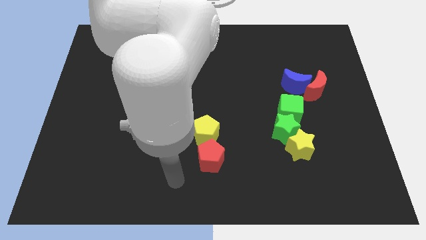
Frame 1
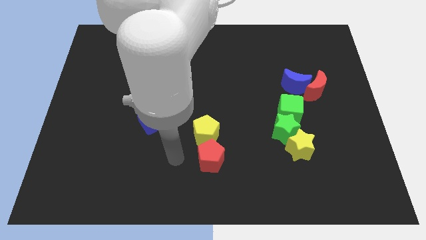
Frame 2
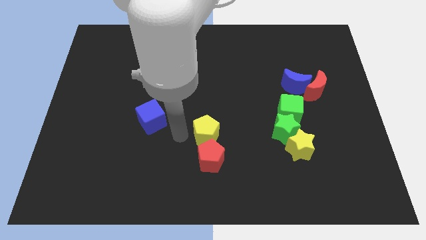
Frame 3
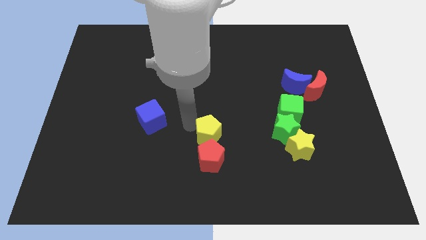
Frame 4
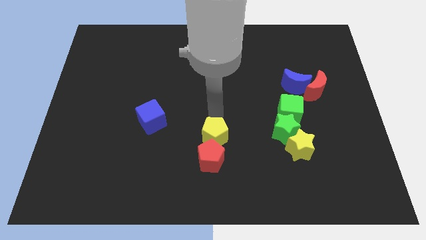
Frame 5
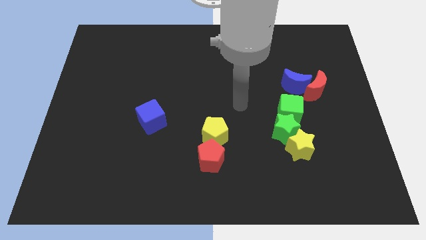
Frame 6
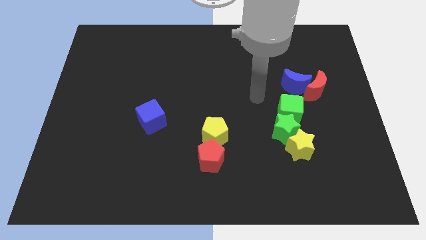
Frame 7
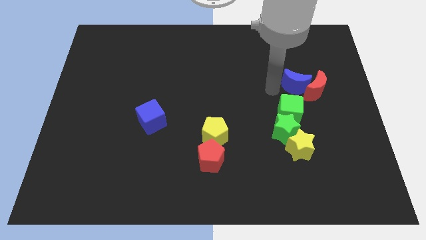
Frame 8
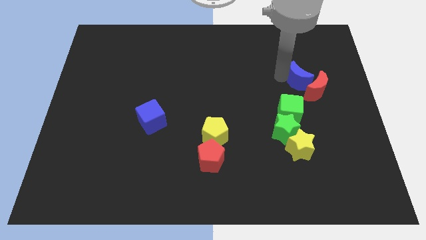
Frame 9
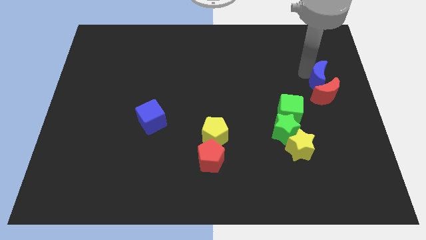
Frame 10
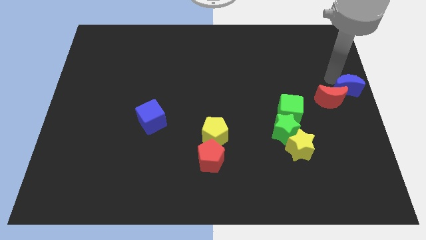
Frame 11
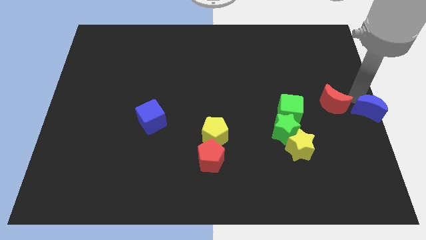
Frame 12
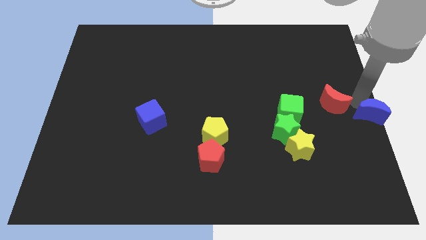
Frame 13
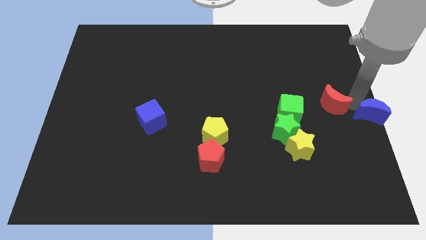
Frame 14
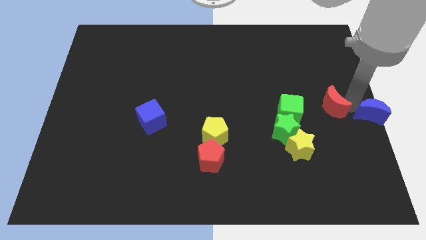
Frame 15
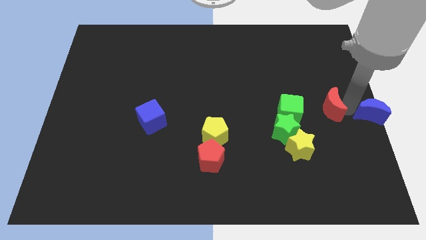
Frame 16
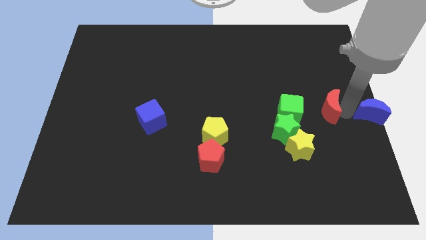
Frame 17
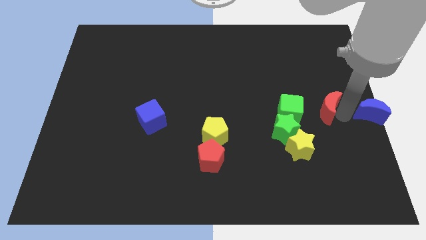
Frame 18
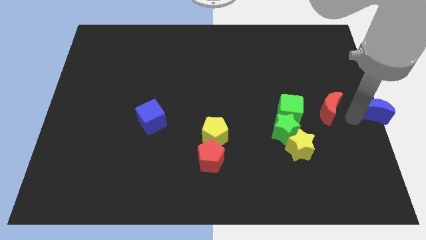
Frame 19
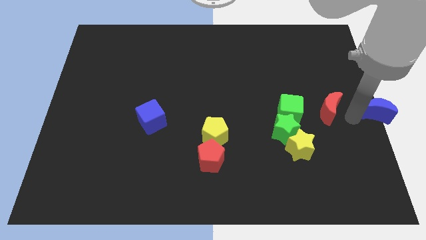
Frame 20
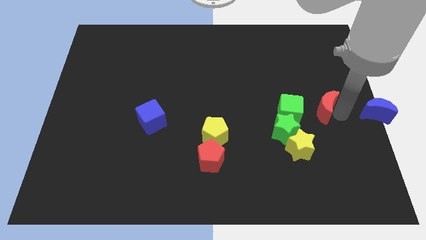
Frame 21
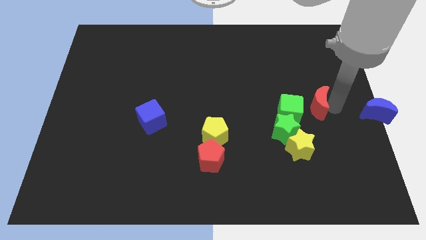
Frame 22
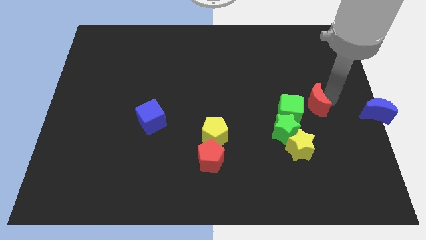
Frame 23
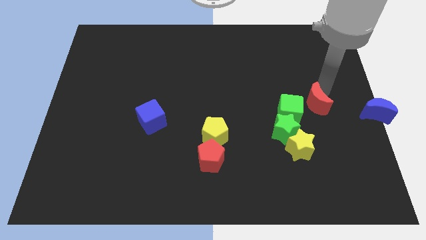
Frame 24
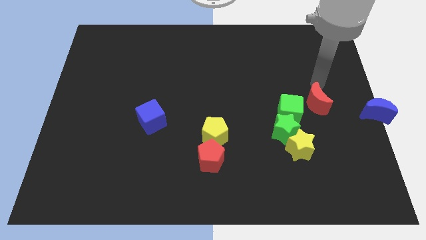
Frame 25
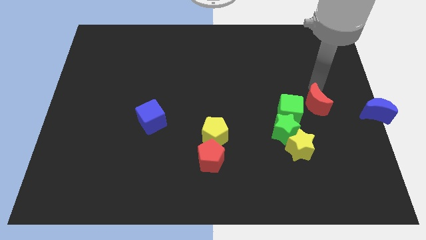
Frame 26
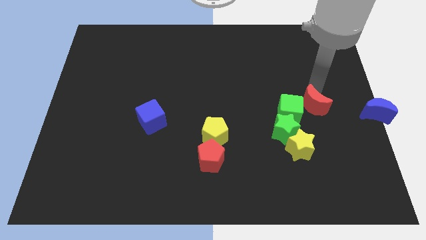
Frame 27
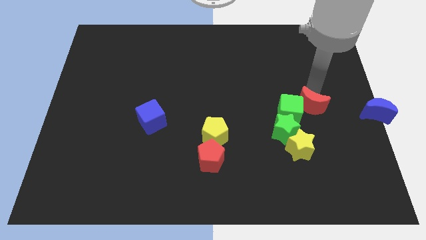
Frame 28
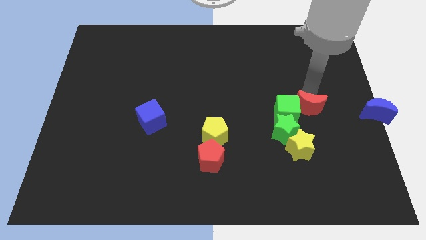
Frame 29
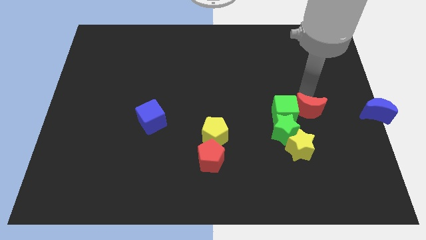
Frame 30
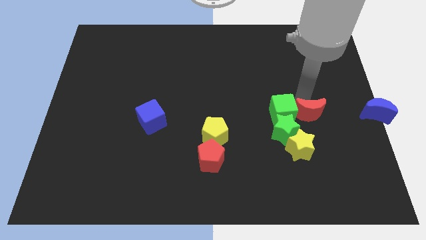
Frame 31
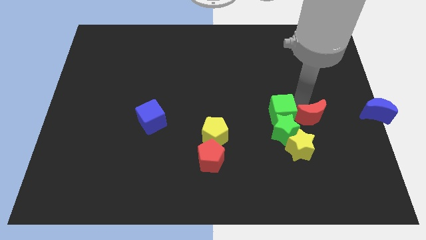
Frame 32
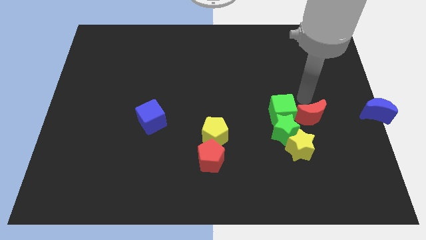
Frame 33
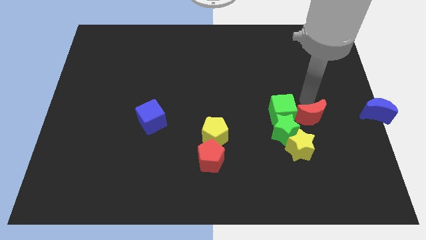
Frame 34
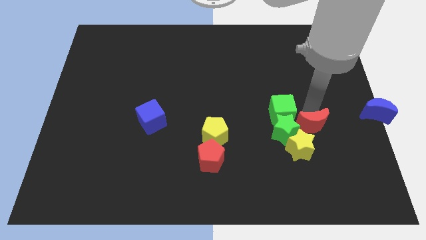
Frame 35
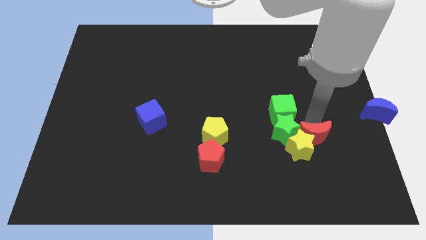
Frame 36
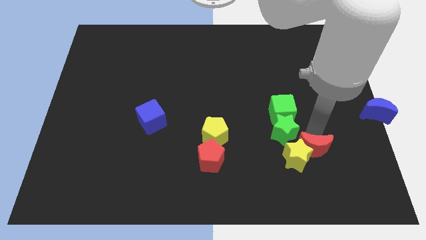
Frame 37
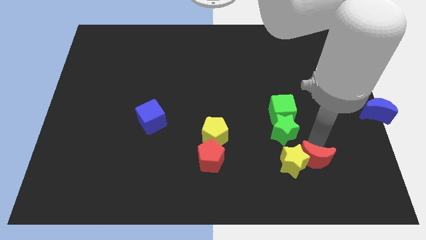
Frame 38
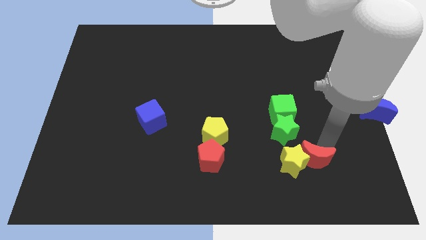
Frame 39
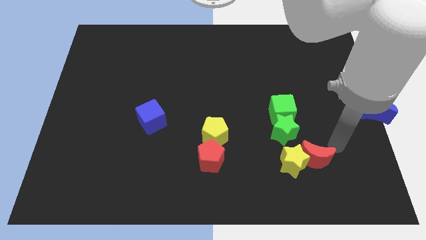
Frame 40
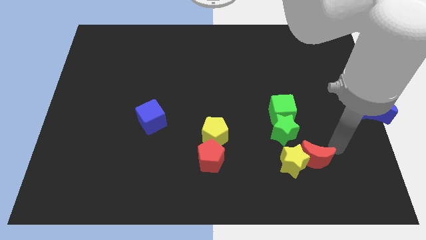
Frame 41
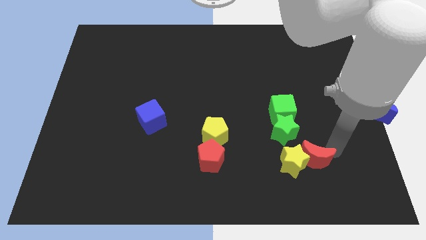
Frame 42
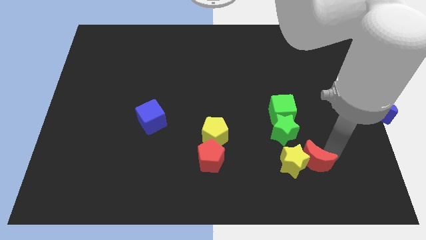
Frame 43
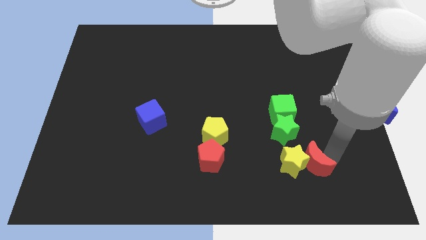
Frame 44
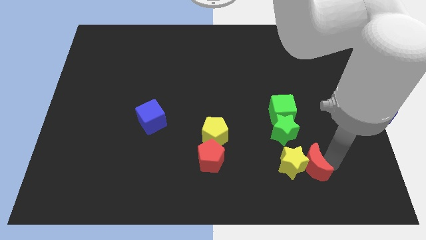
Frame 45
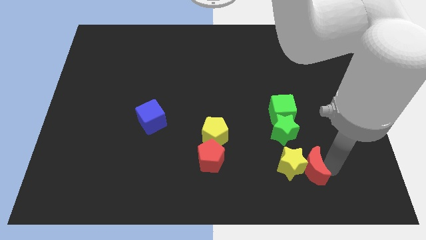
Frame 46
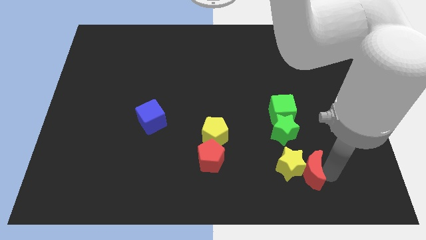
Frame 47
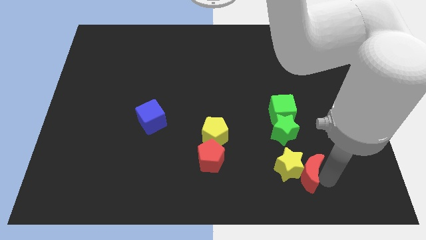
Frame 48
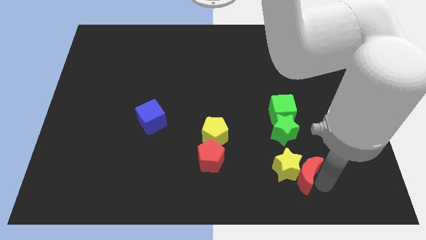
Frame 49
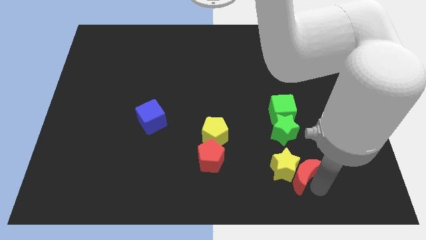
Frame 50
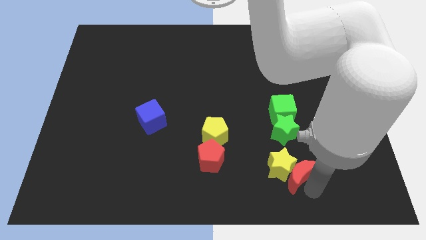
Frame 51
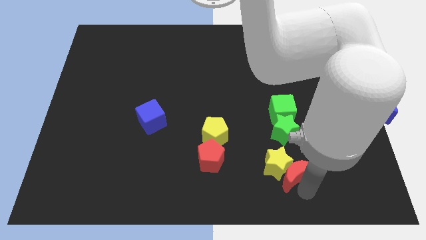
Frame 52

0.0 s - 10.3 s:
slide the red moon to the bottom side of the green cube

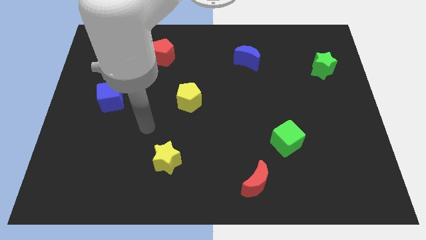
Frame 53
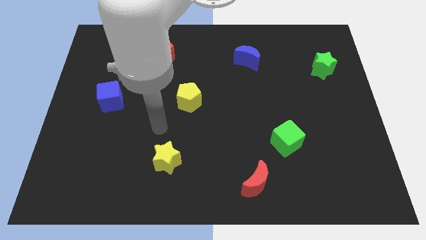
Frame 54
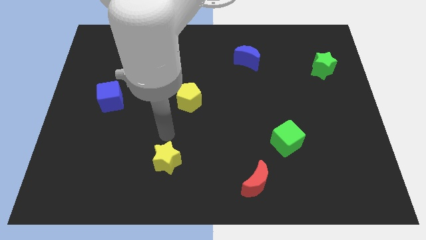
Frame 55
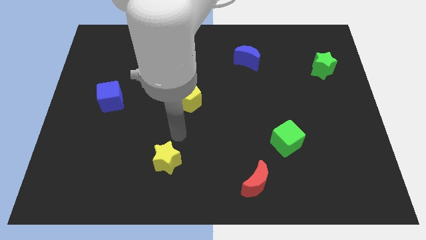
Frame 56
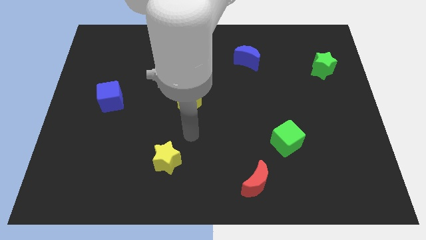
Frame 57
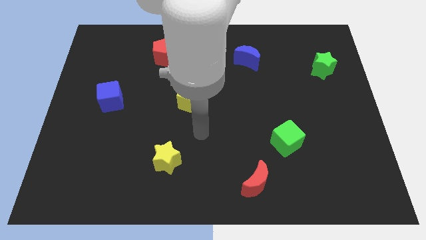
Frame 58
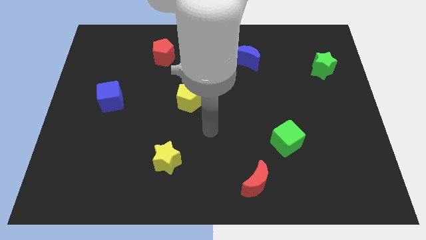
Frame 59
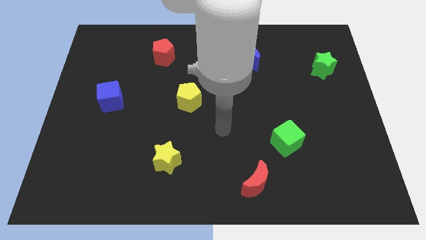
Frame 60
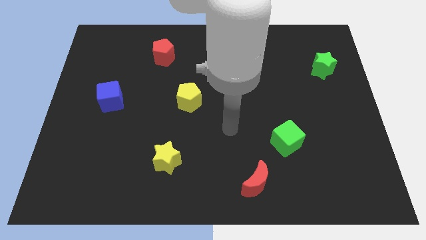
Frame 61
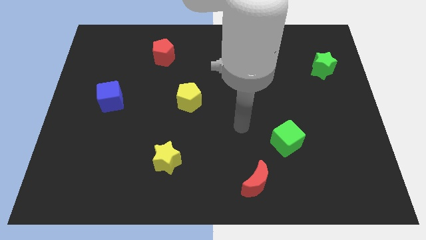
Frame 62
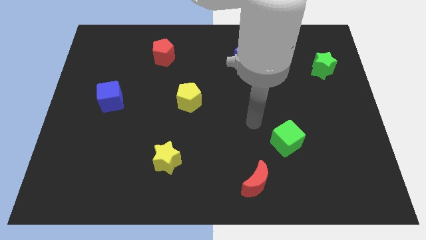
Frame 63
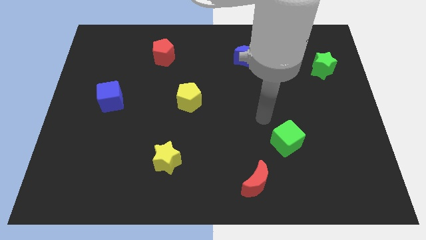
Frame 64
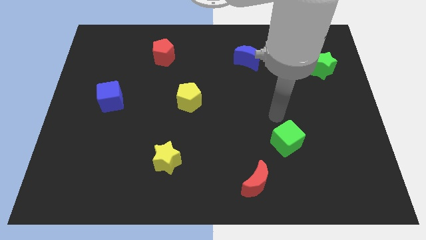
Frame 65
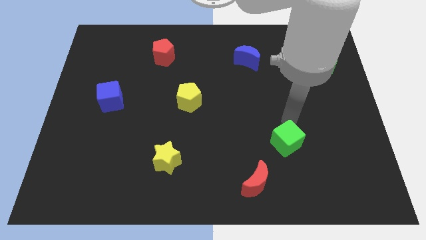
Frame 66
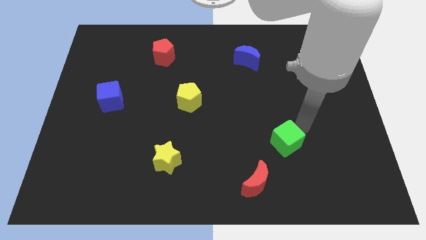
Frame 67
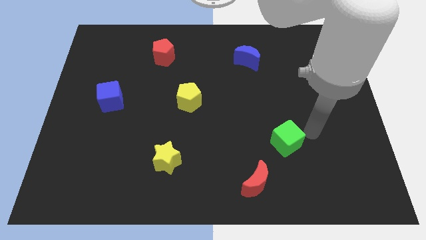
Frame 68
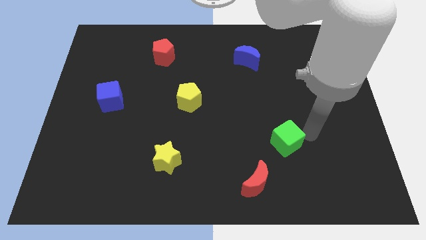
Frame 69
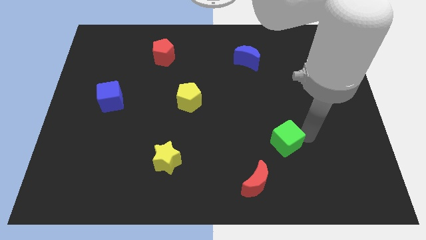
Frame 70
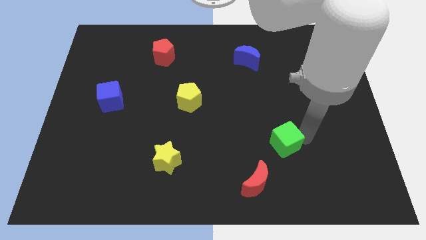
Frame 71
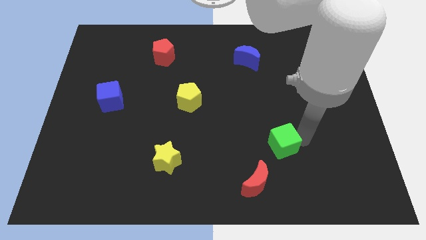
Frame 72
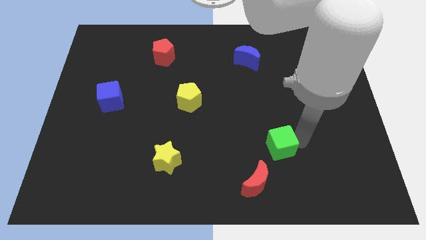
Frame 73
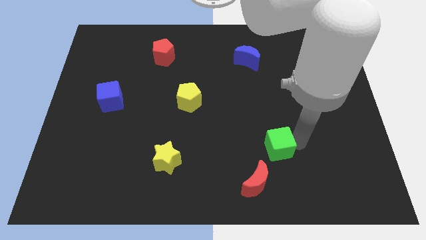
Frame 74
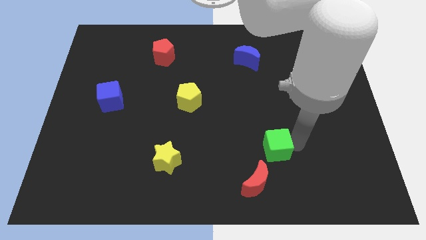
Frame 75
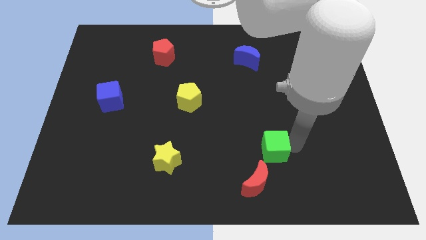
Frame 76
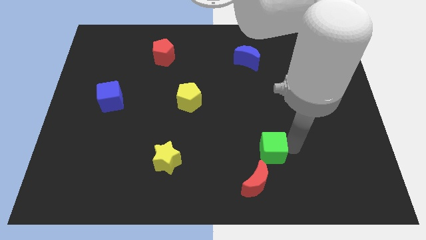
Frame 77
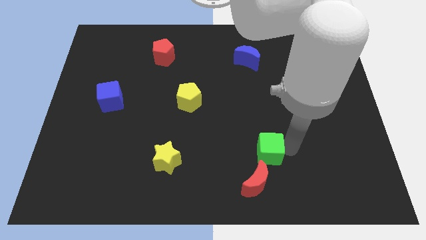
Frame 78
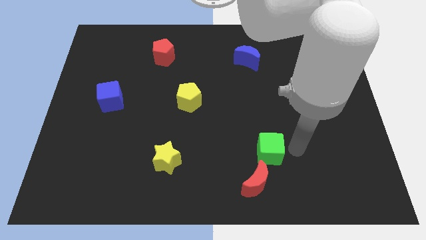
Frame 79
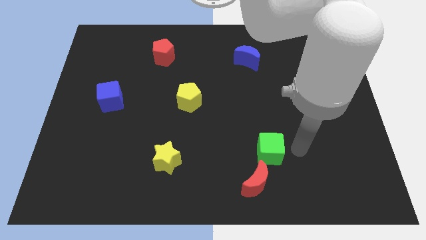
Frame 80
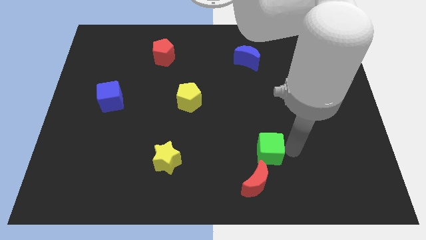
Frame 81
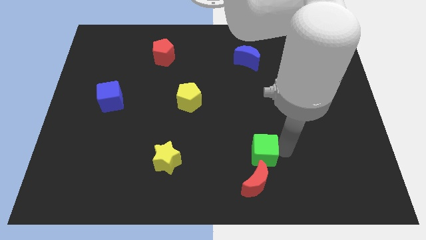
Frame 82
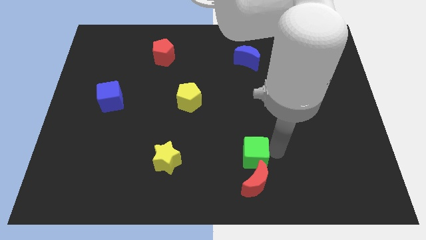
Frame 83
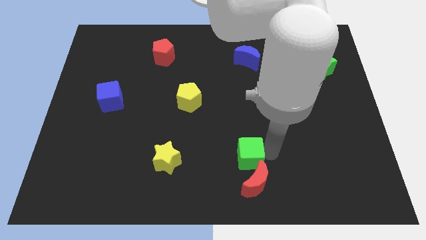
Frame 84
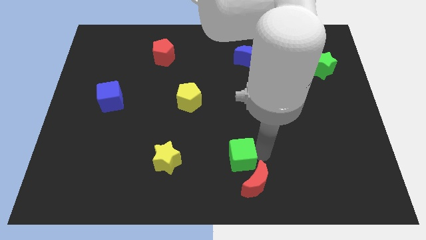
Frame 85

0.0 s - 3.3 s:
move the green cube to the right of the yellow star
